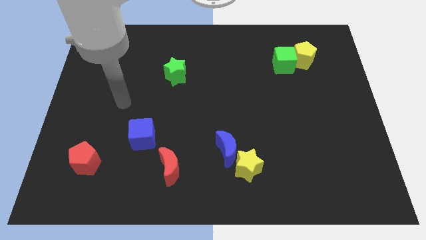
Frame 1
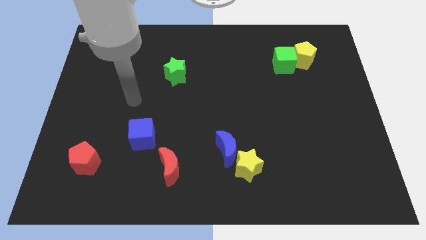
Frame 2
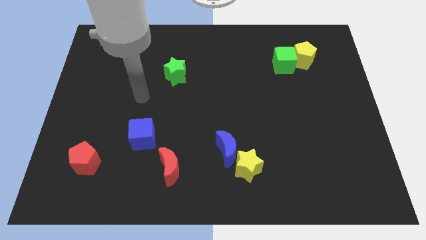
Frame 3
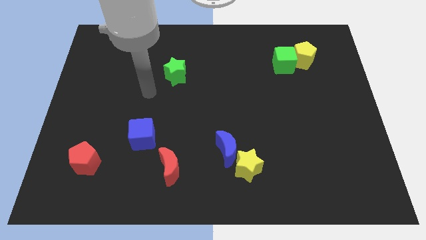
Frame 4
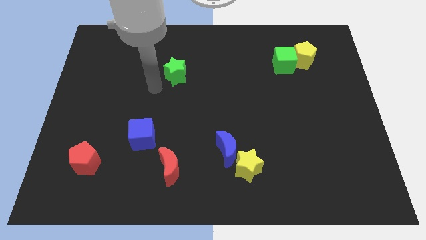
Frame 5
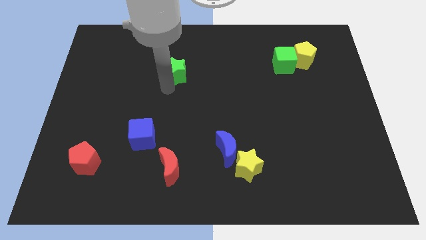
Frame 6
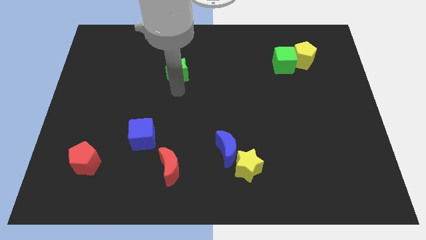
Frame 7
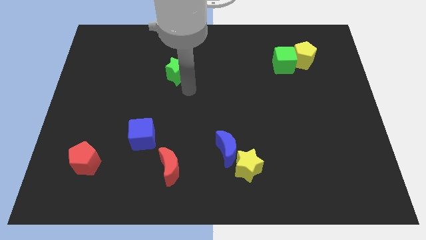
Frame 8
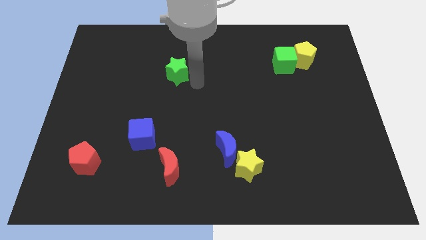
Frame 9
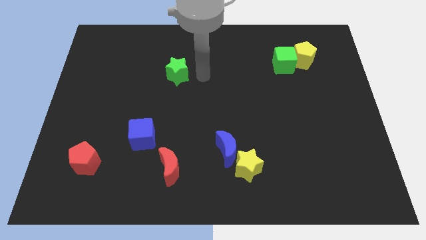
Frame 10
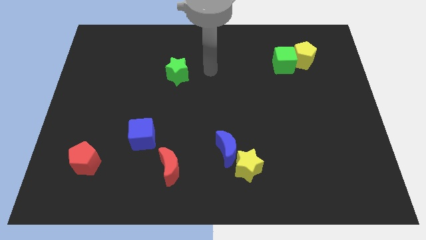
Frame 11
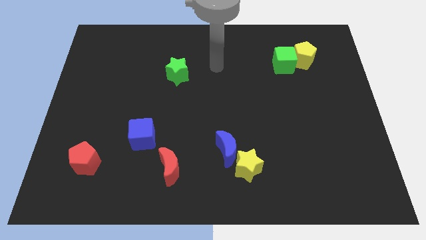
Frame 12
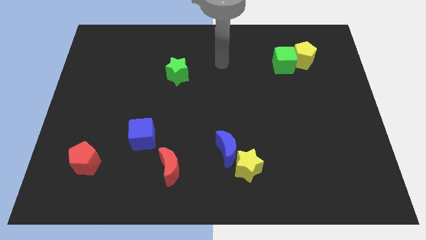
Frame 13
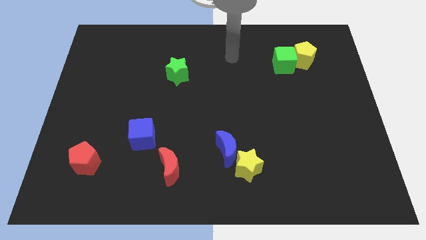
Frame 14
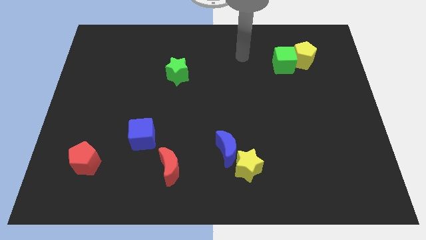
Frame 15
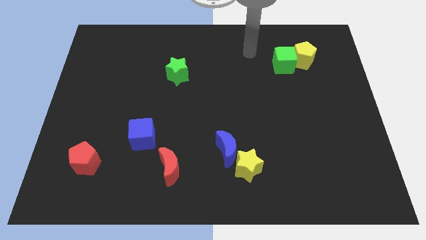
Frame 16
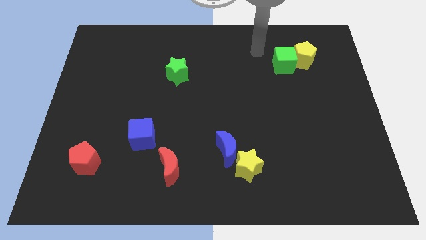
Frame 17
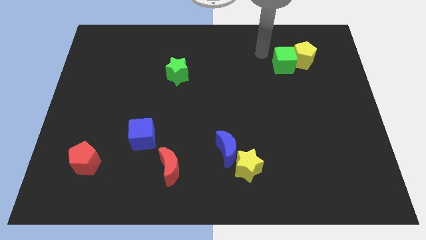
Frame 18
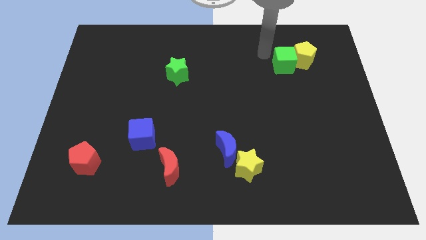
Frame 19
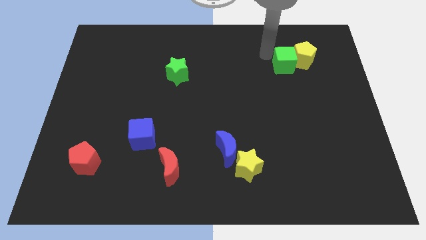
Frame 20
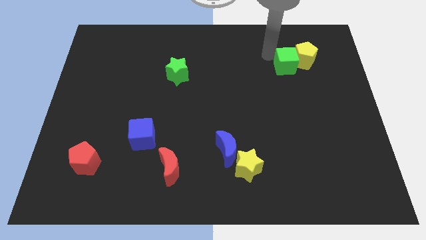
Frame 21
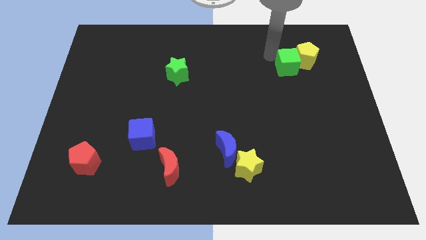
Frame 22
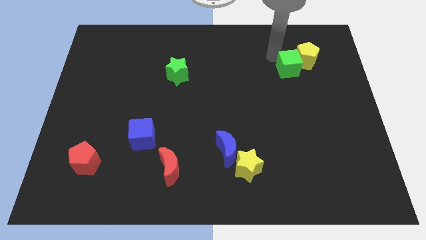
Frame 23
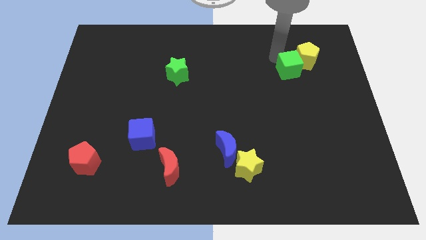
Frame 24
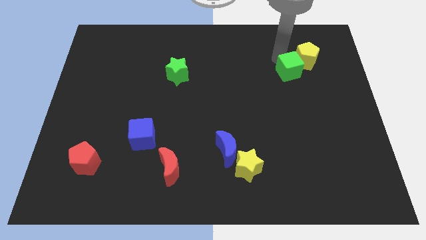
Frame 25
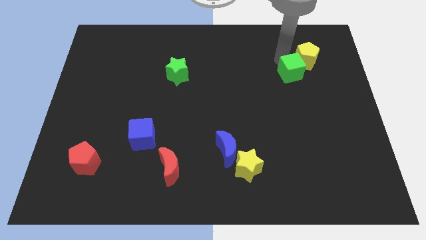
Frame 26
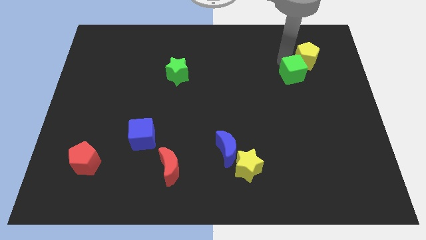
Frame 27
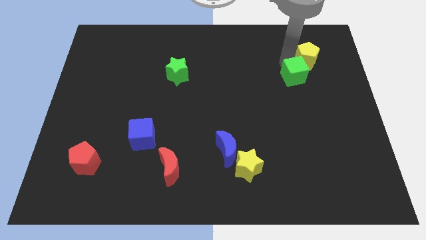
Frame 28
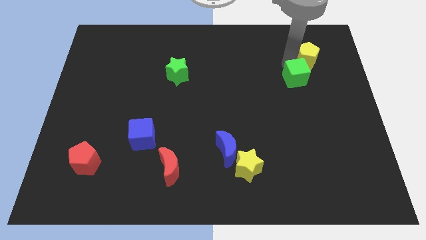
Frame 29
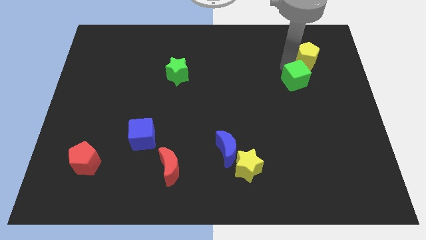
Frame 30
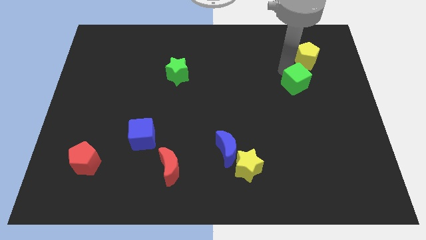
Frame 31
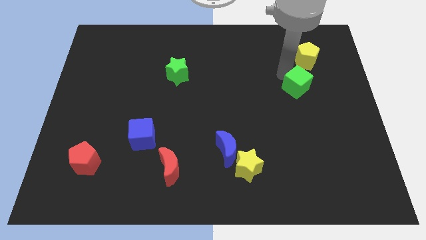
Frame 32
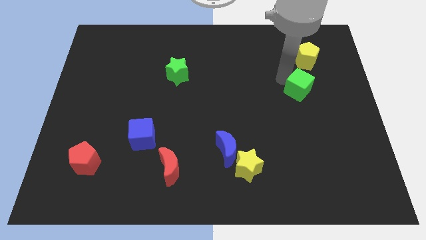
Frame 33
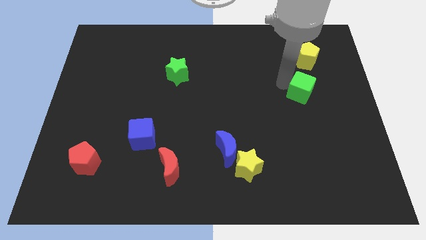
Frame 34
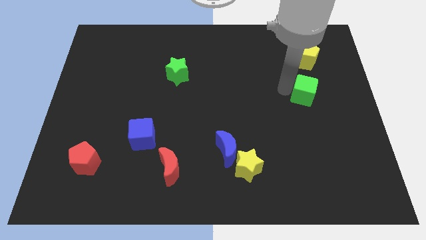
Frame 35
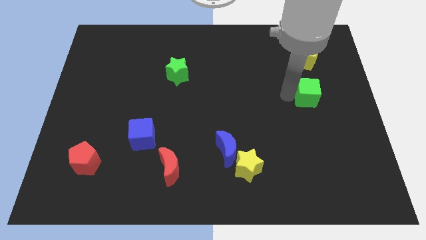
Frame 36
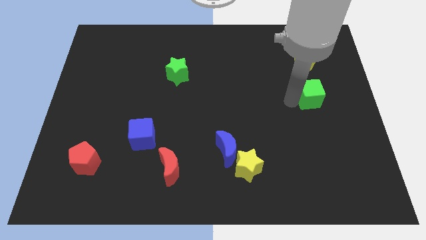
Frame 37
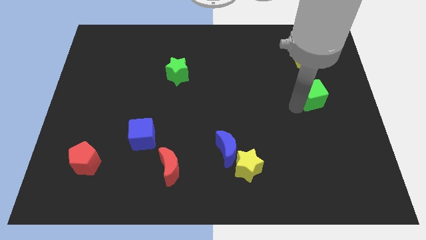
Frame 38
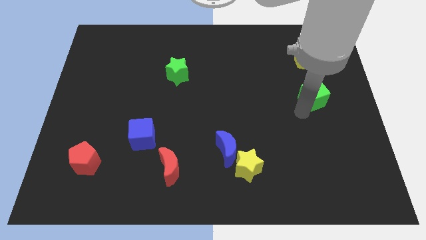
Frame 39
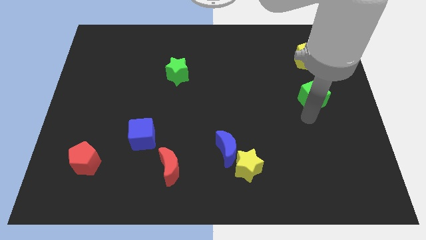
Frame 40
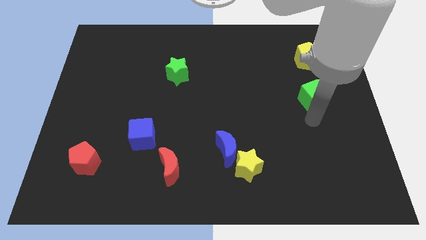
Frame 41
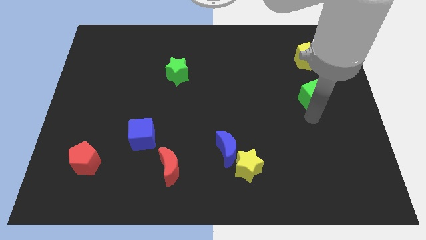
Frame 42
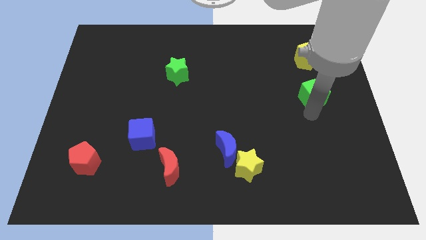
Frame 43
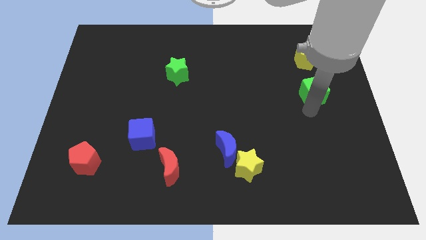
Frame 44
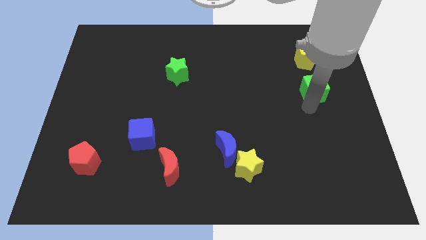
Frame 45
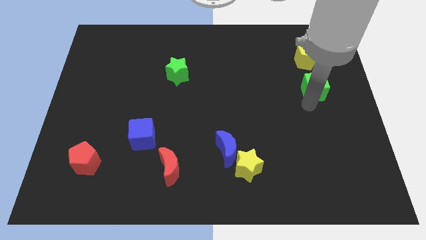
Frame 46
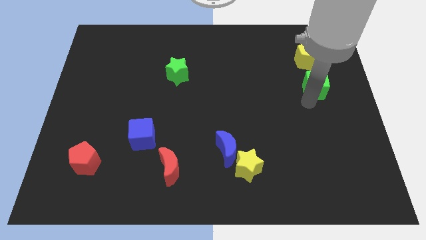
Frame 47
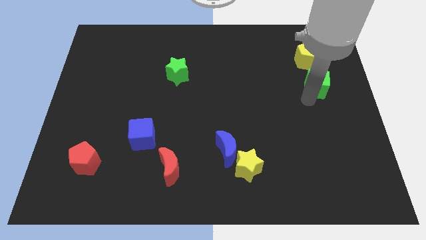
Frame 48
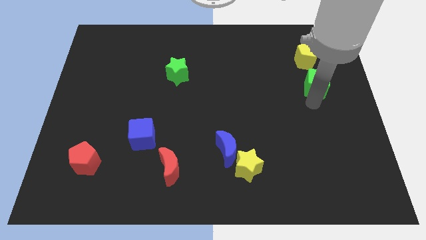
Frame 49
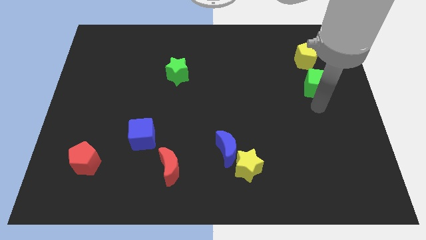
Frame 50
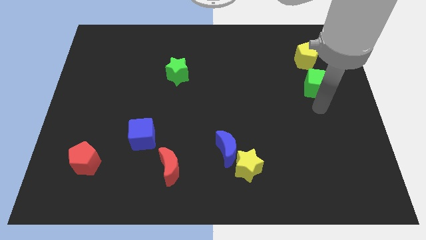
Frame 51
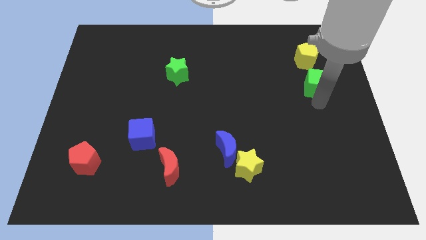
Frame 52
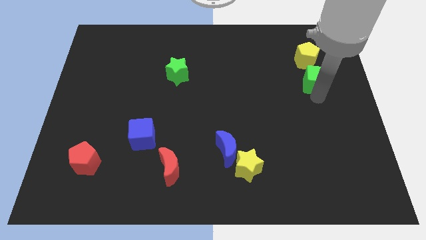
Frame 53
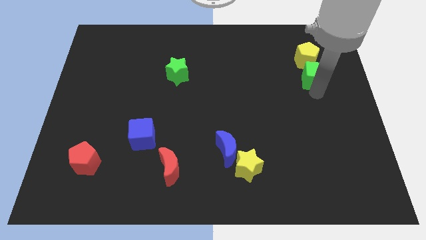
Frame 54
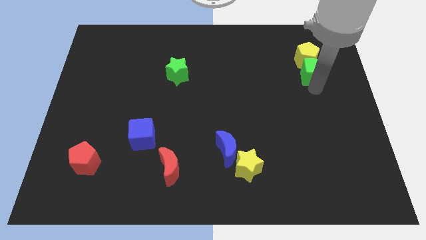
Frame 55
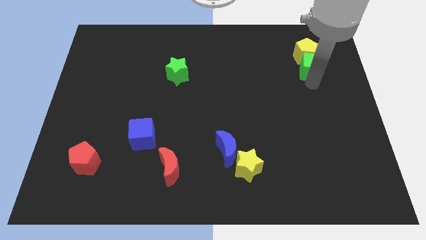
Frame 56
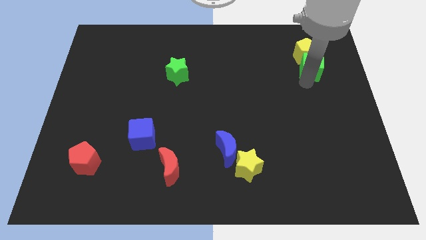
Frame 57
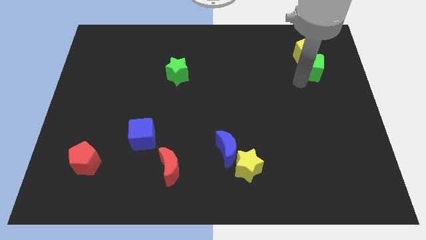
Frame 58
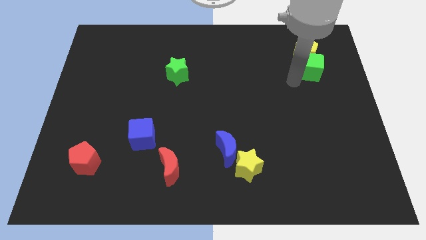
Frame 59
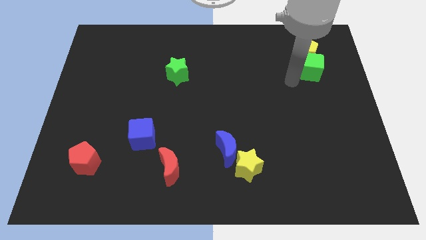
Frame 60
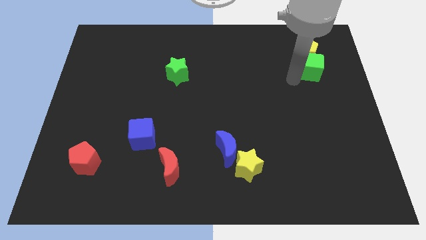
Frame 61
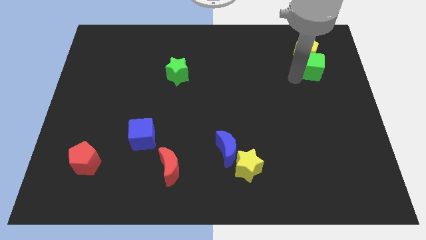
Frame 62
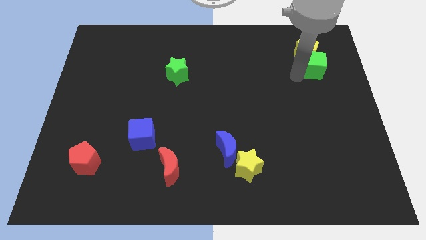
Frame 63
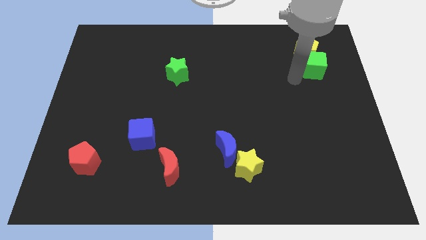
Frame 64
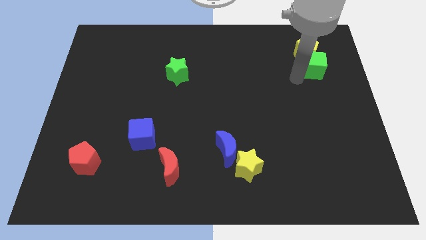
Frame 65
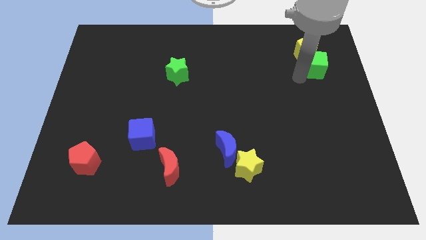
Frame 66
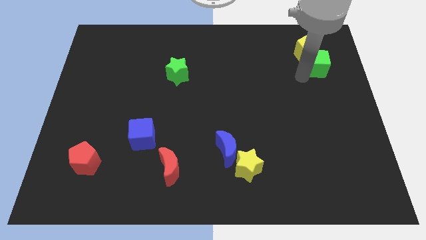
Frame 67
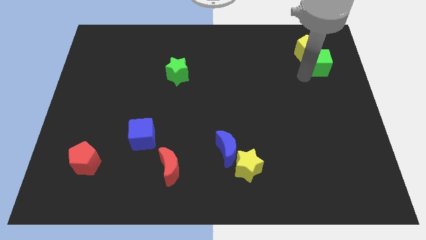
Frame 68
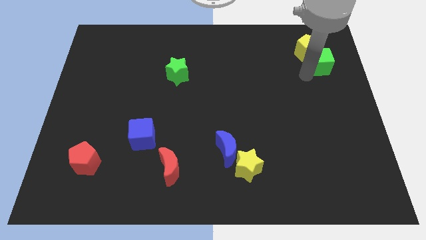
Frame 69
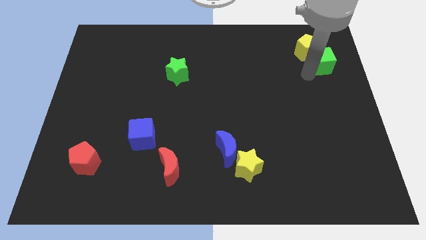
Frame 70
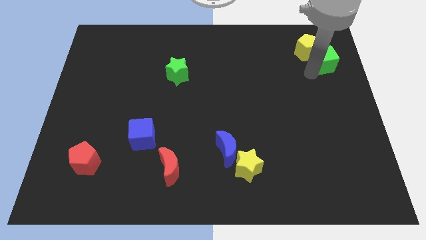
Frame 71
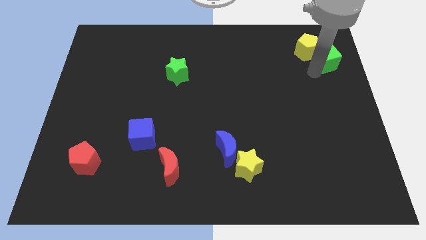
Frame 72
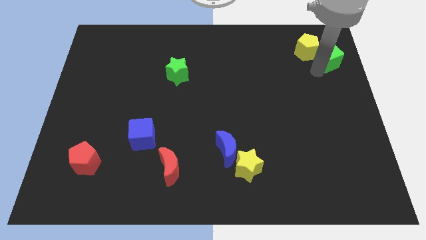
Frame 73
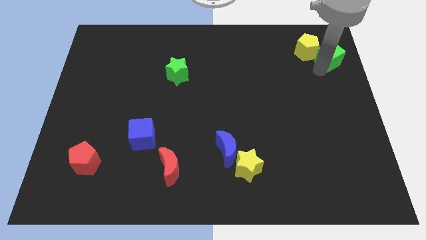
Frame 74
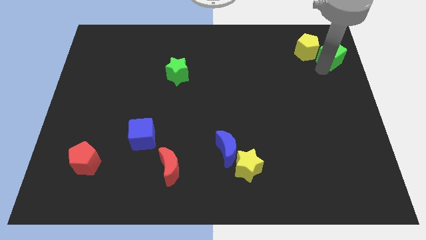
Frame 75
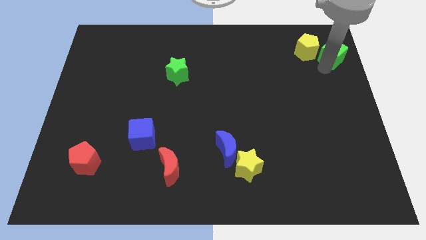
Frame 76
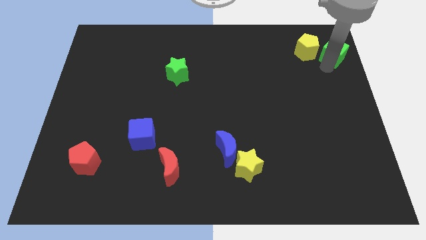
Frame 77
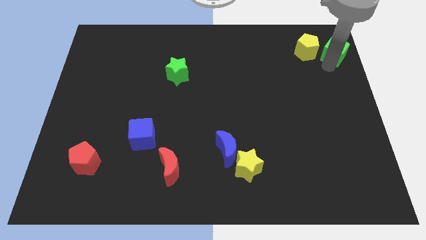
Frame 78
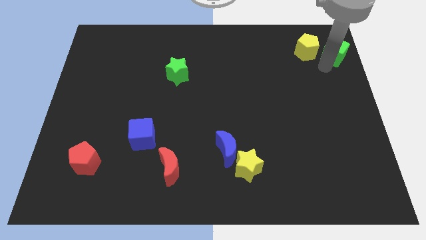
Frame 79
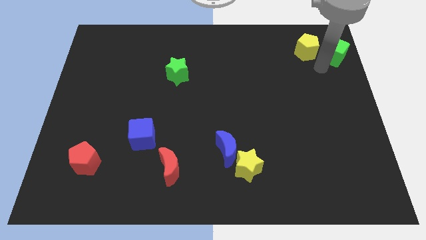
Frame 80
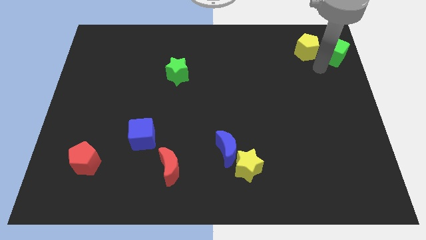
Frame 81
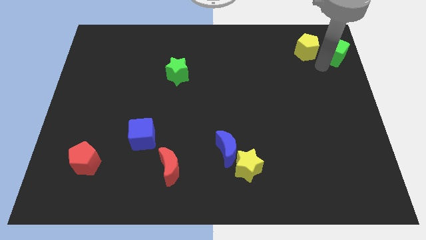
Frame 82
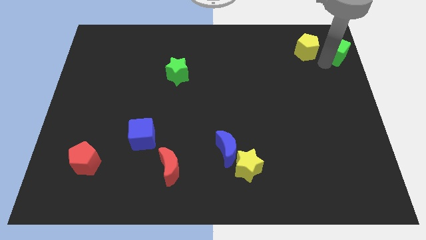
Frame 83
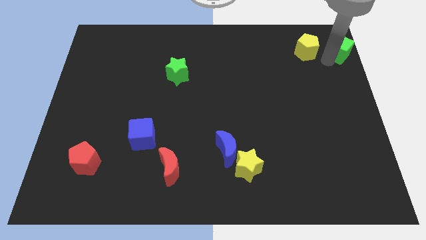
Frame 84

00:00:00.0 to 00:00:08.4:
push the green cube to the upper right corner
